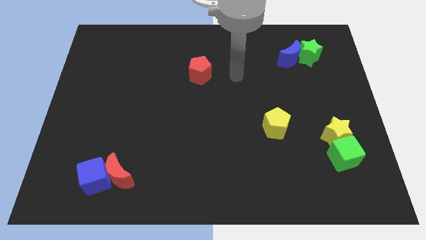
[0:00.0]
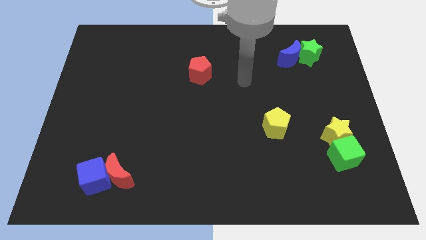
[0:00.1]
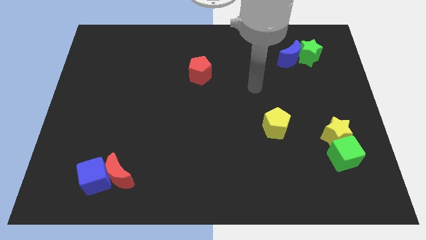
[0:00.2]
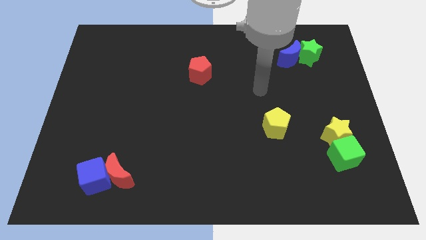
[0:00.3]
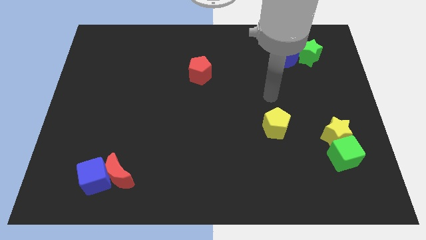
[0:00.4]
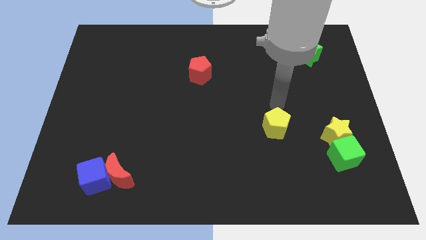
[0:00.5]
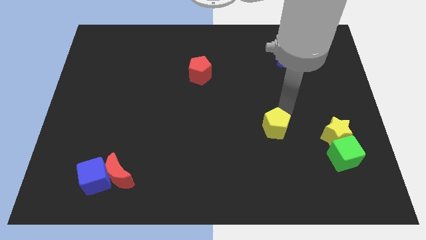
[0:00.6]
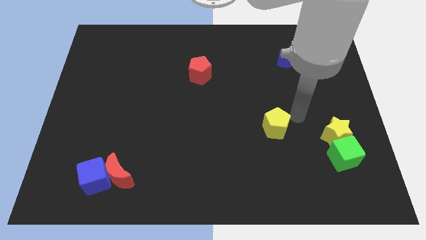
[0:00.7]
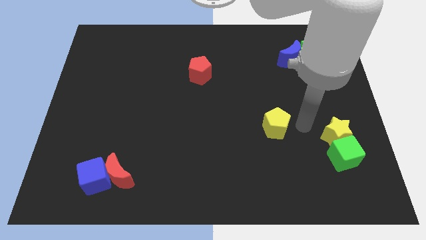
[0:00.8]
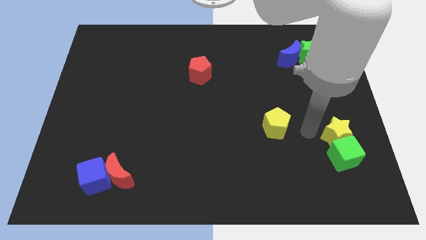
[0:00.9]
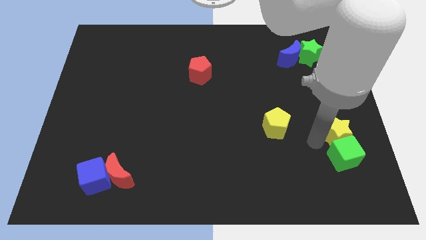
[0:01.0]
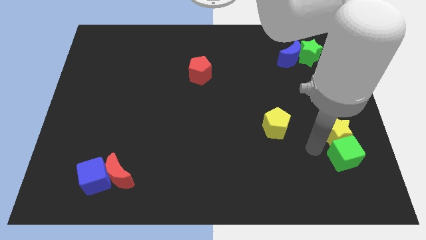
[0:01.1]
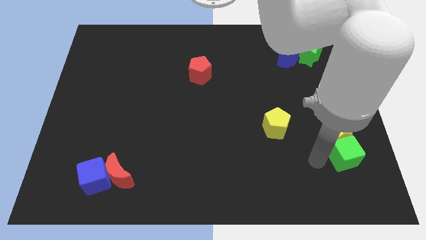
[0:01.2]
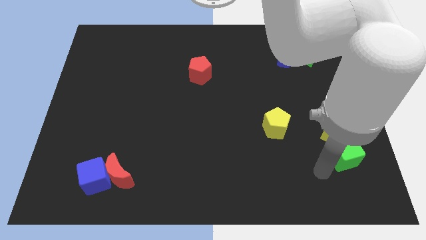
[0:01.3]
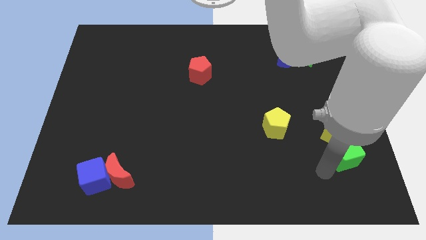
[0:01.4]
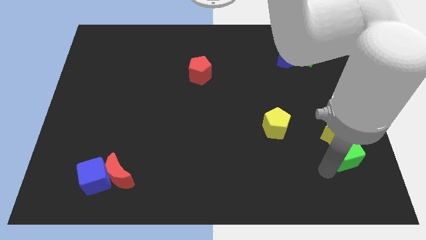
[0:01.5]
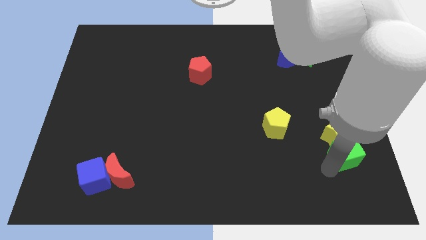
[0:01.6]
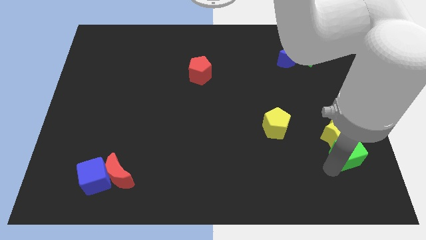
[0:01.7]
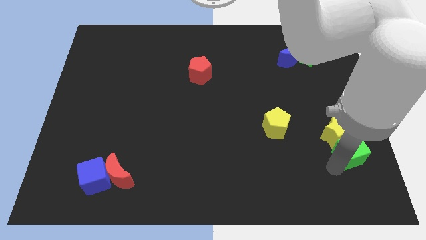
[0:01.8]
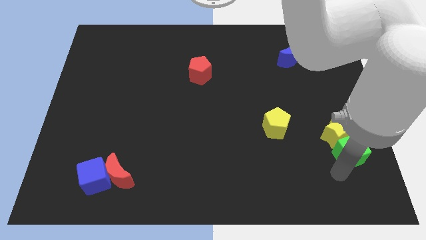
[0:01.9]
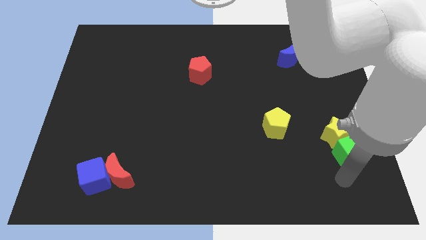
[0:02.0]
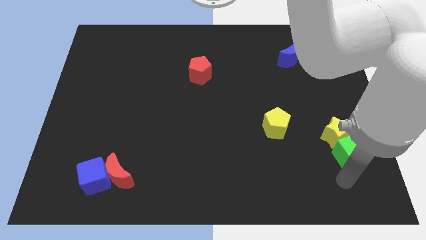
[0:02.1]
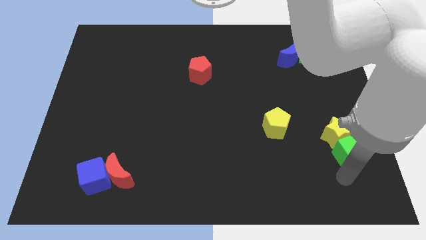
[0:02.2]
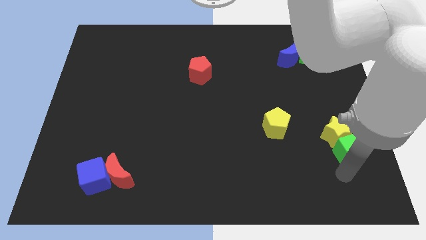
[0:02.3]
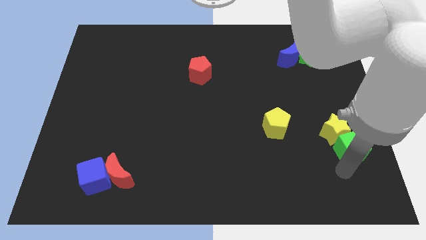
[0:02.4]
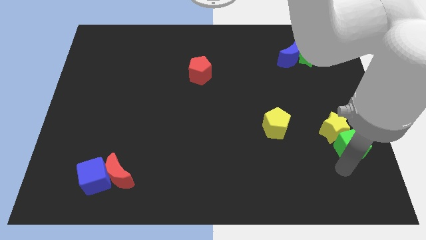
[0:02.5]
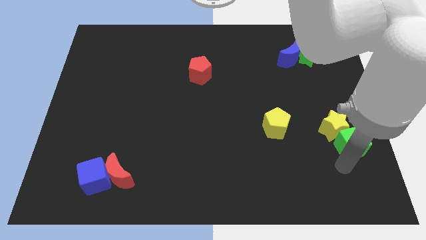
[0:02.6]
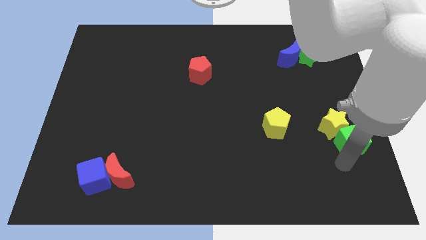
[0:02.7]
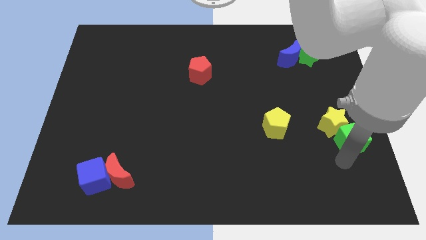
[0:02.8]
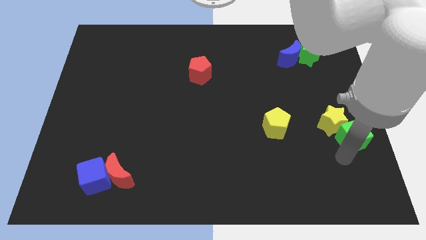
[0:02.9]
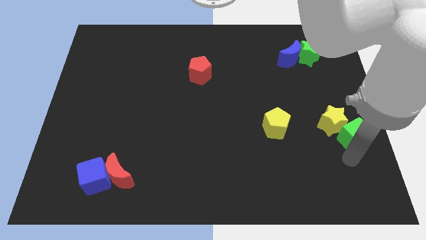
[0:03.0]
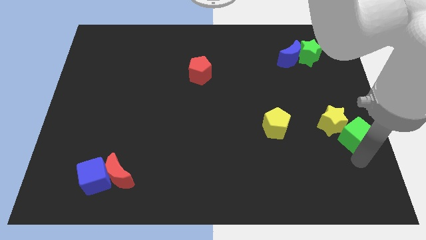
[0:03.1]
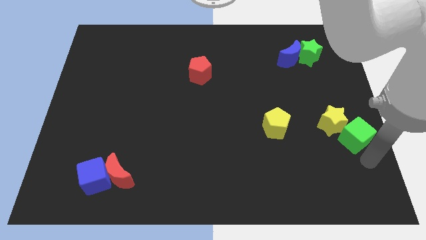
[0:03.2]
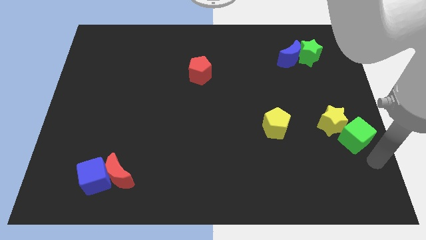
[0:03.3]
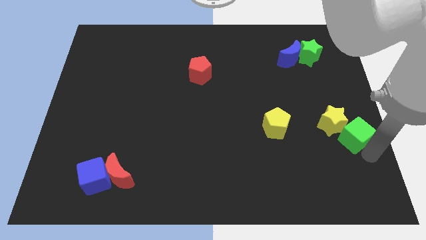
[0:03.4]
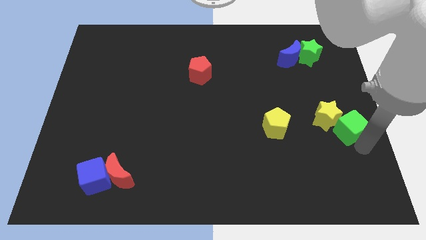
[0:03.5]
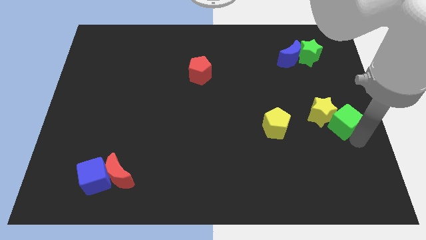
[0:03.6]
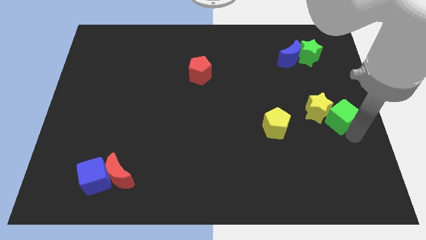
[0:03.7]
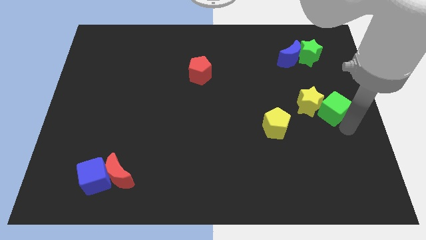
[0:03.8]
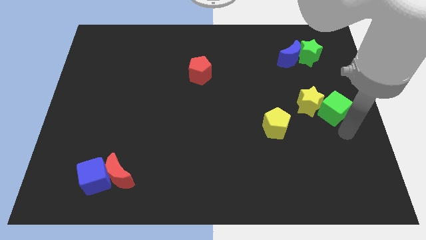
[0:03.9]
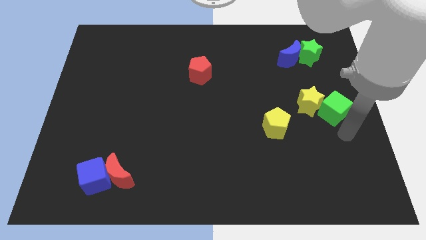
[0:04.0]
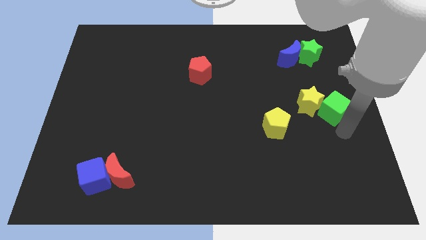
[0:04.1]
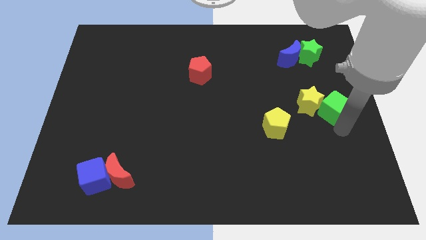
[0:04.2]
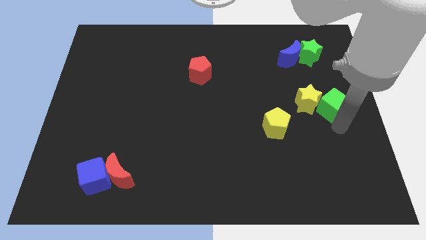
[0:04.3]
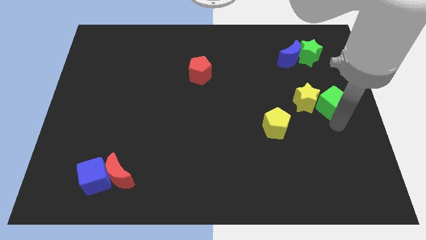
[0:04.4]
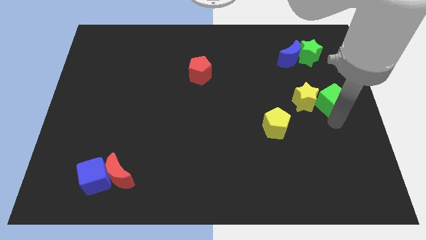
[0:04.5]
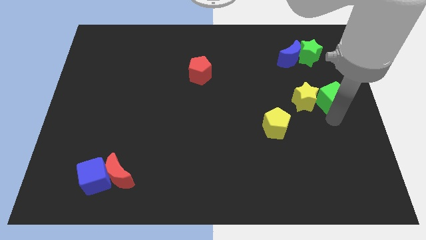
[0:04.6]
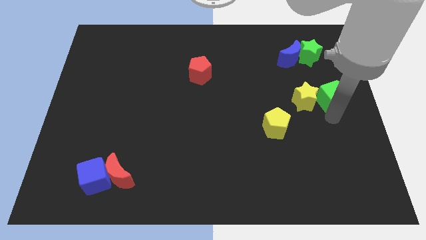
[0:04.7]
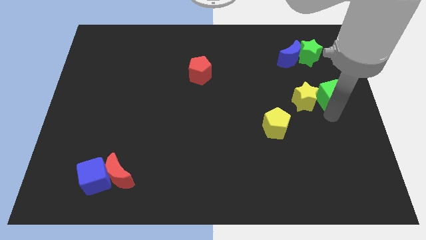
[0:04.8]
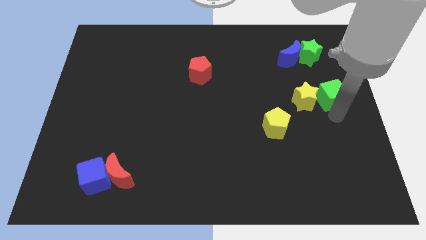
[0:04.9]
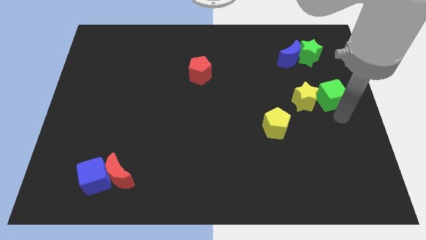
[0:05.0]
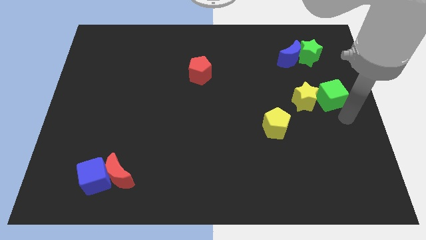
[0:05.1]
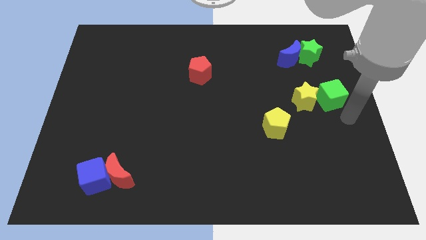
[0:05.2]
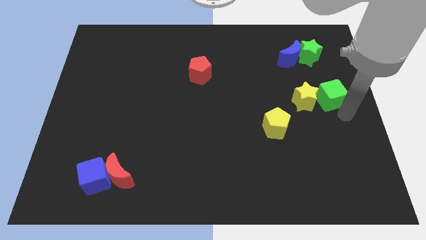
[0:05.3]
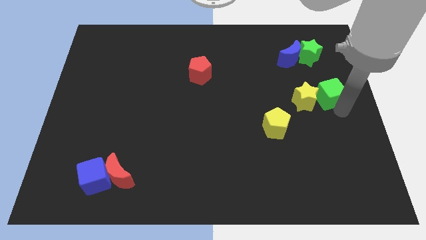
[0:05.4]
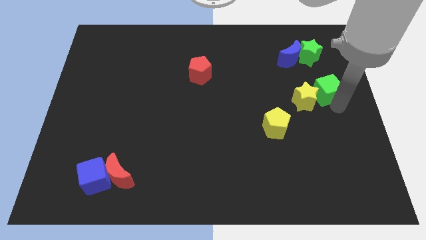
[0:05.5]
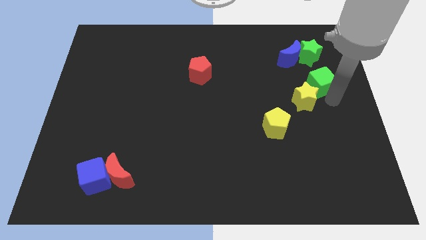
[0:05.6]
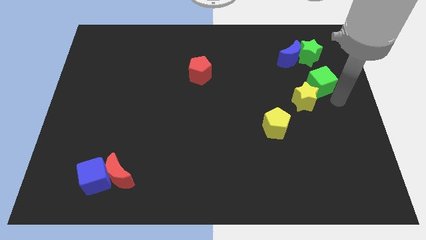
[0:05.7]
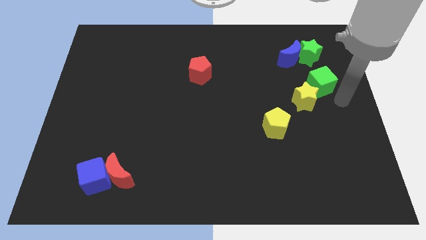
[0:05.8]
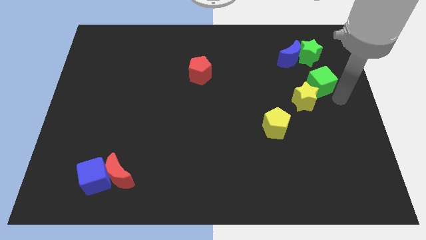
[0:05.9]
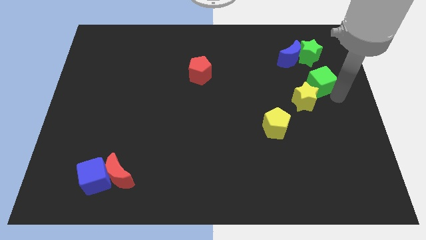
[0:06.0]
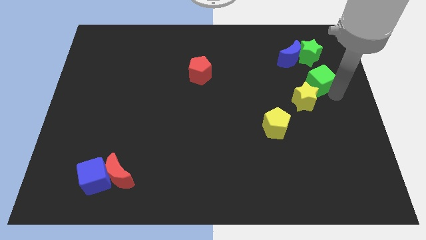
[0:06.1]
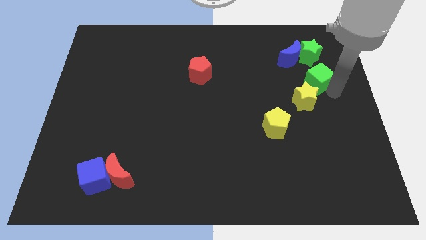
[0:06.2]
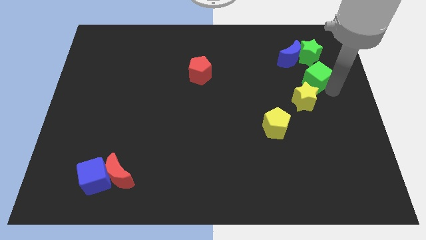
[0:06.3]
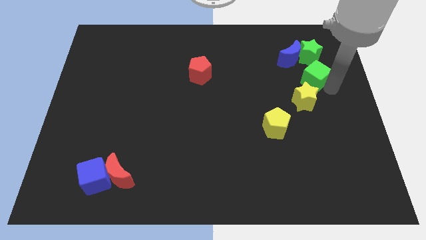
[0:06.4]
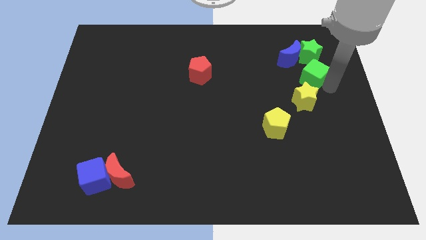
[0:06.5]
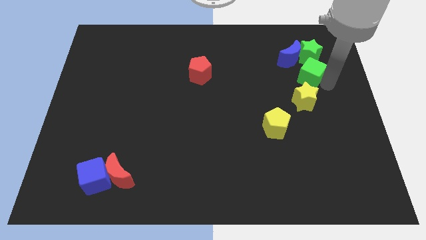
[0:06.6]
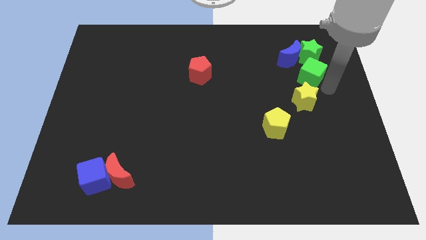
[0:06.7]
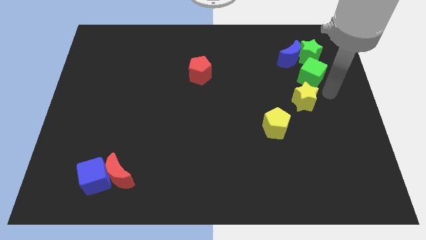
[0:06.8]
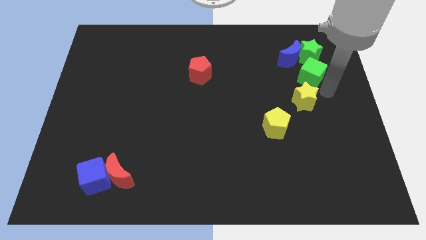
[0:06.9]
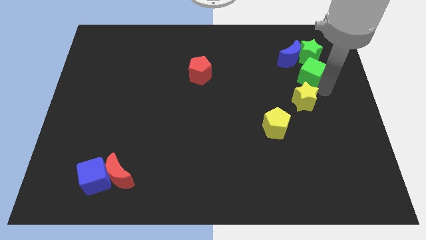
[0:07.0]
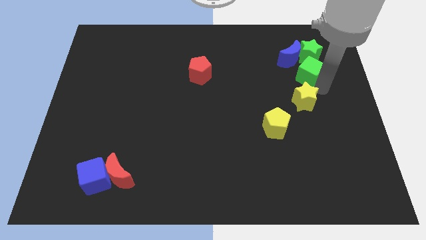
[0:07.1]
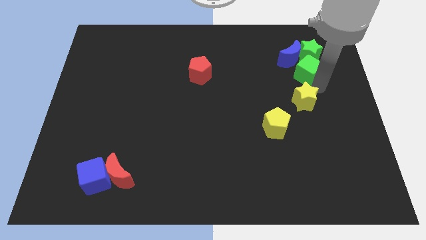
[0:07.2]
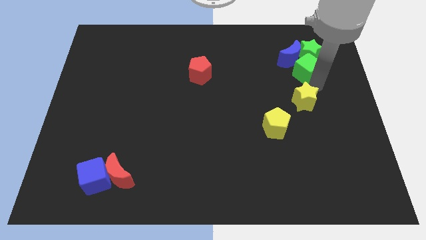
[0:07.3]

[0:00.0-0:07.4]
push the green cube close to the blue moon
